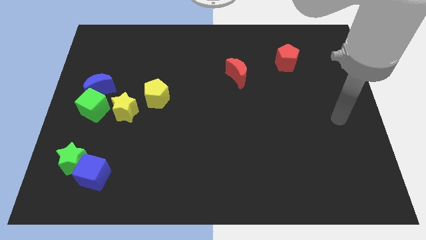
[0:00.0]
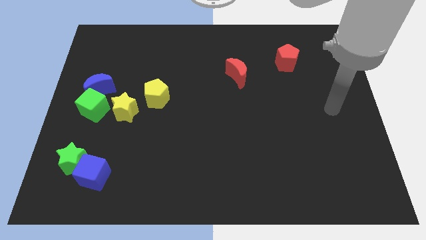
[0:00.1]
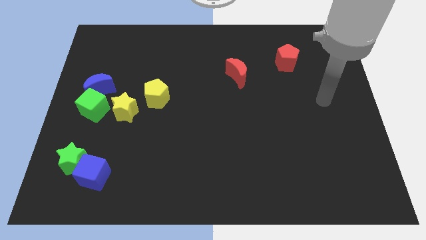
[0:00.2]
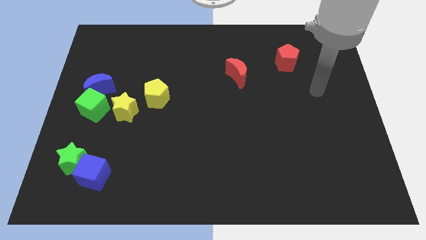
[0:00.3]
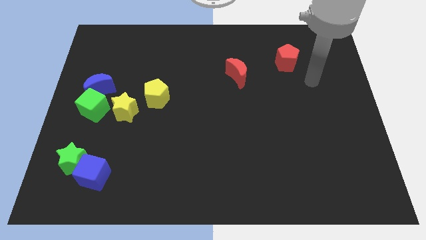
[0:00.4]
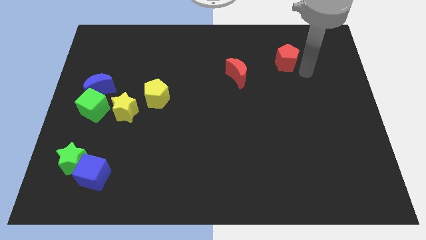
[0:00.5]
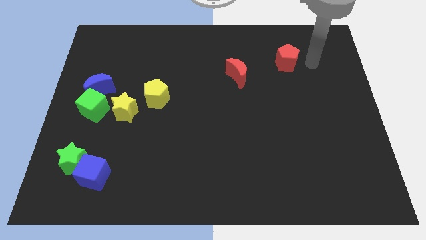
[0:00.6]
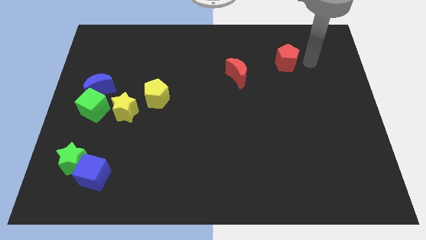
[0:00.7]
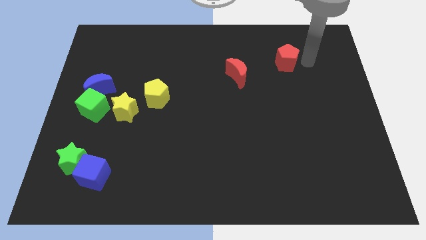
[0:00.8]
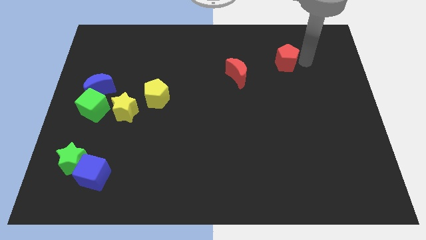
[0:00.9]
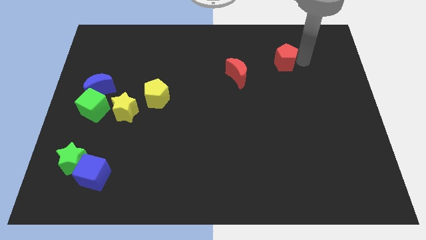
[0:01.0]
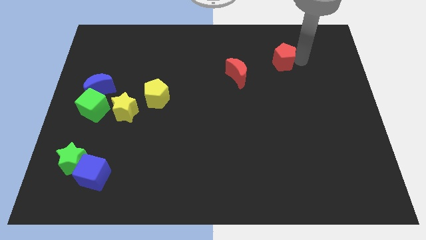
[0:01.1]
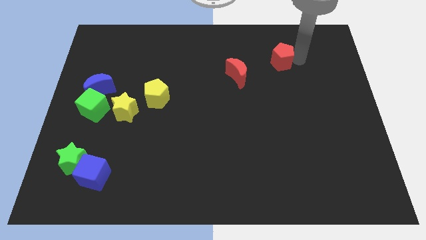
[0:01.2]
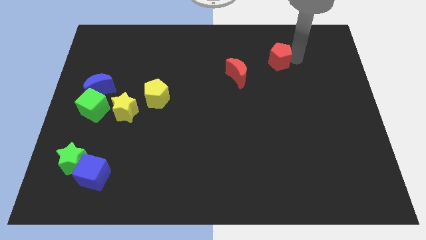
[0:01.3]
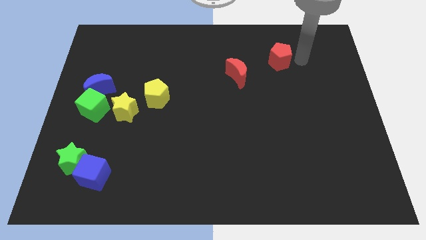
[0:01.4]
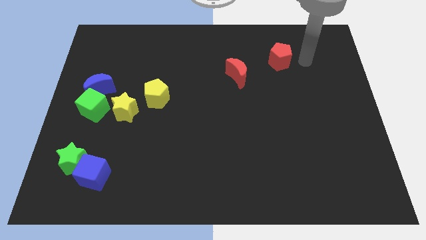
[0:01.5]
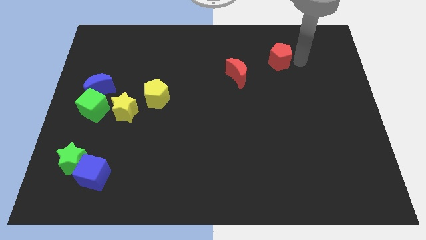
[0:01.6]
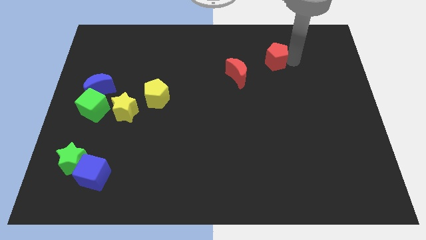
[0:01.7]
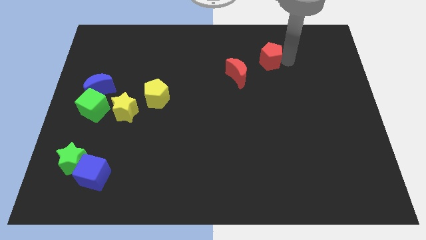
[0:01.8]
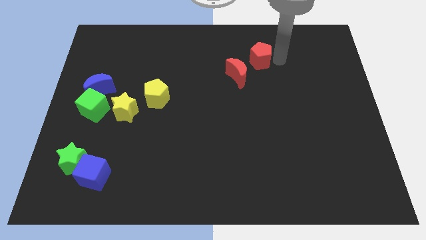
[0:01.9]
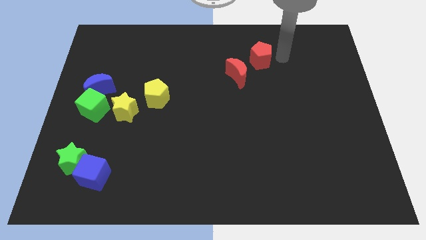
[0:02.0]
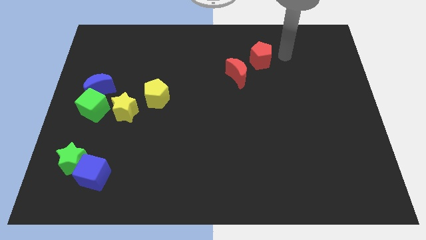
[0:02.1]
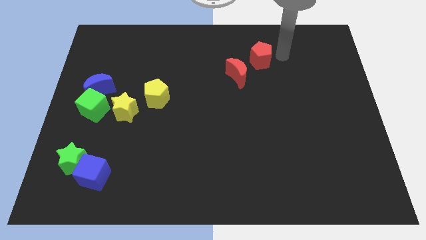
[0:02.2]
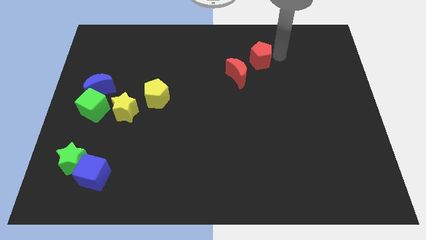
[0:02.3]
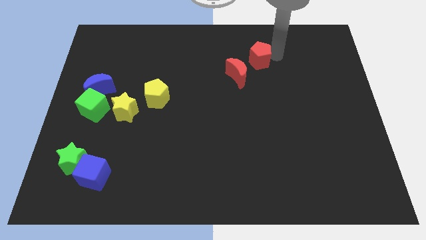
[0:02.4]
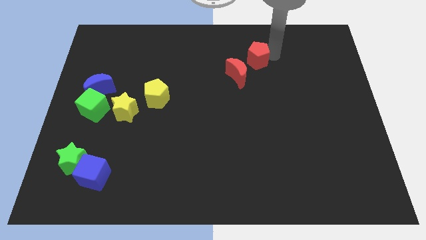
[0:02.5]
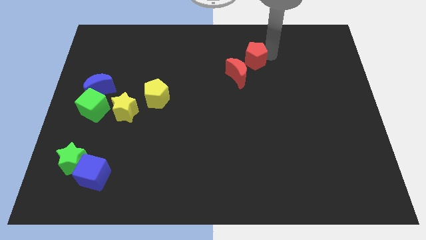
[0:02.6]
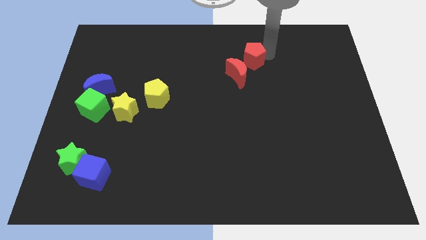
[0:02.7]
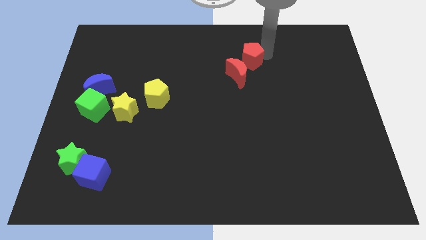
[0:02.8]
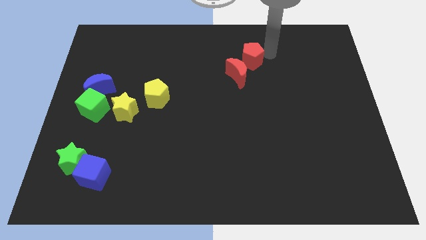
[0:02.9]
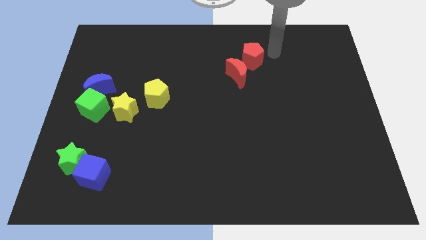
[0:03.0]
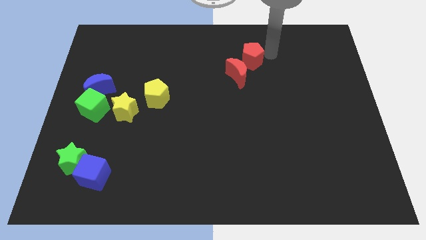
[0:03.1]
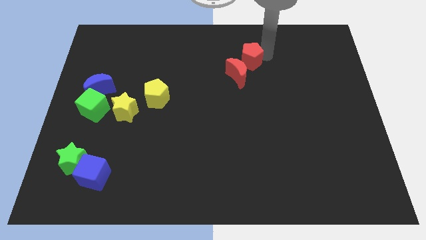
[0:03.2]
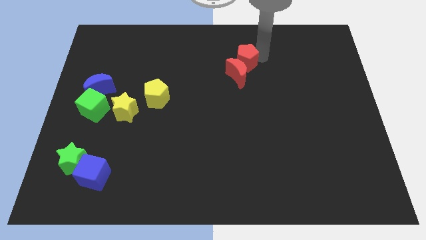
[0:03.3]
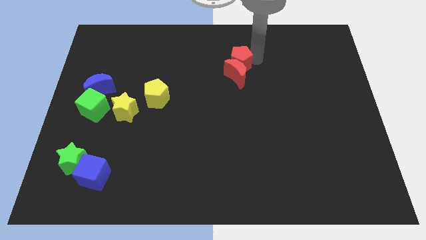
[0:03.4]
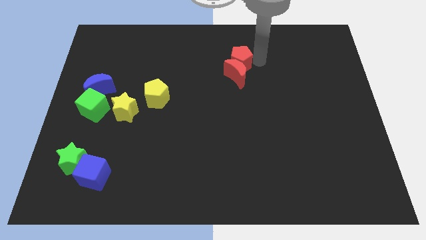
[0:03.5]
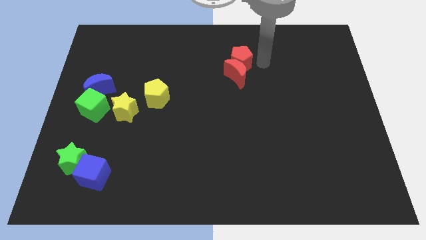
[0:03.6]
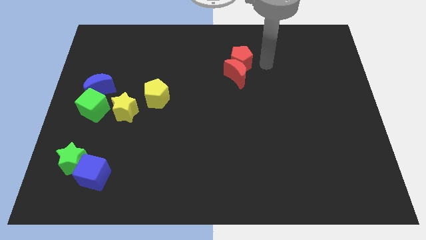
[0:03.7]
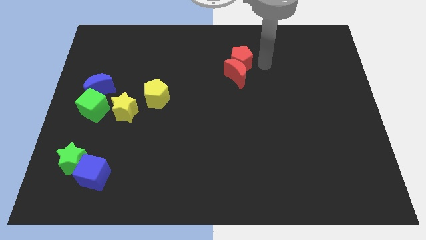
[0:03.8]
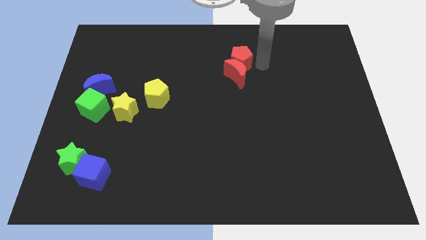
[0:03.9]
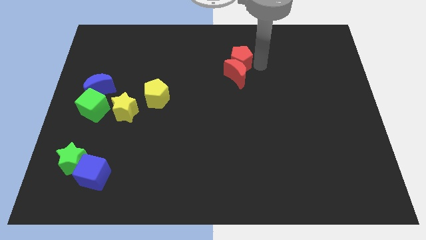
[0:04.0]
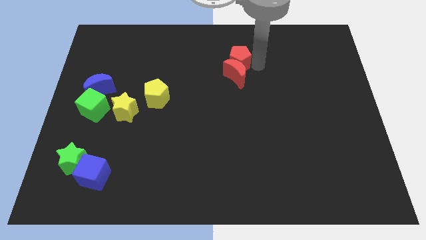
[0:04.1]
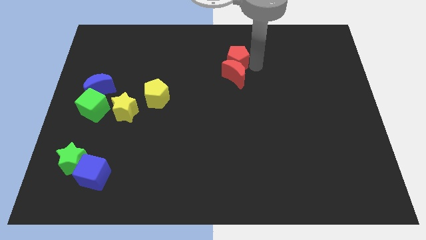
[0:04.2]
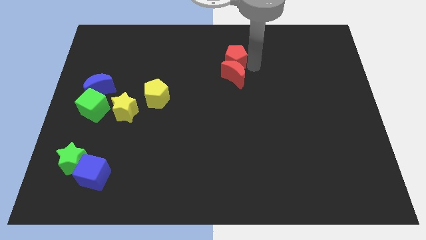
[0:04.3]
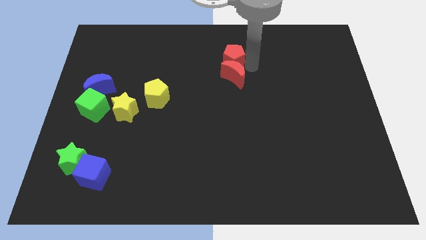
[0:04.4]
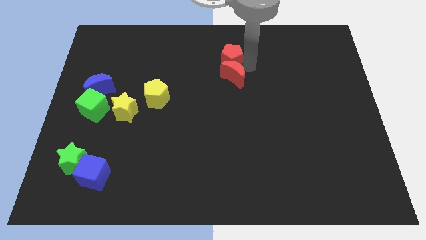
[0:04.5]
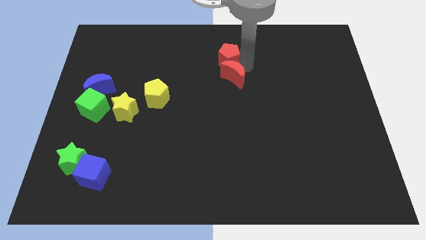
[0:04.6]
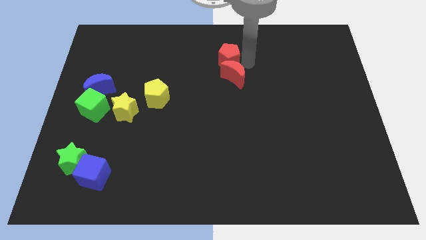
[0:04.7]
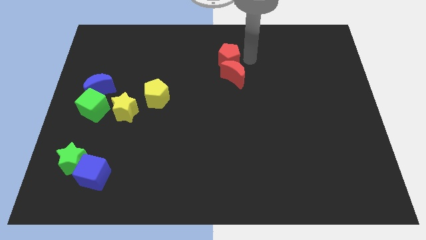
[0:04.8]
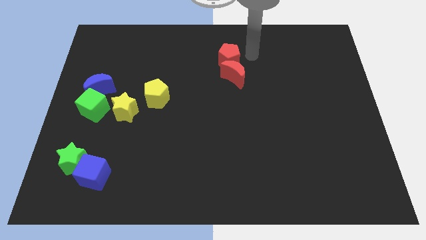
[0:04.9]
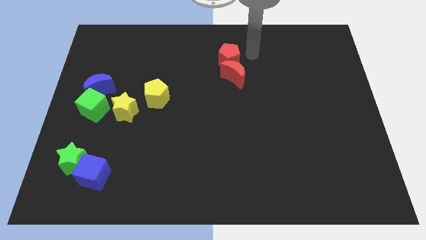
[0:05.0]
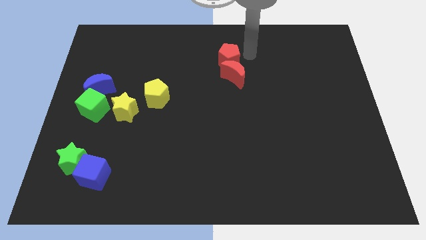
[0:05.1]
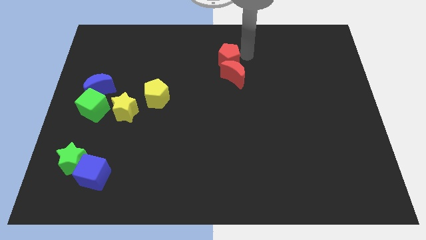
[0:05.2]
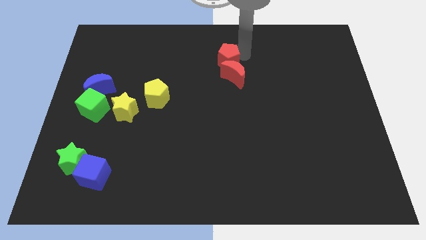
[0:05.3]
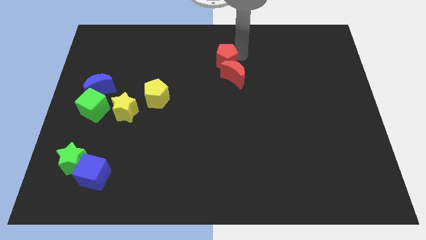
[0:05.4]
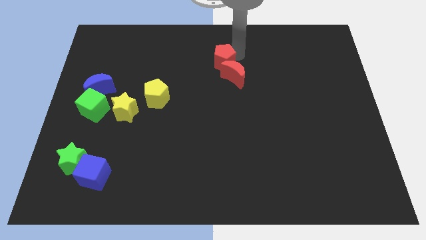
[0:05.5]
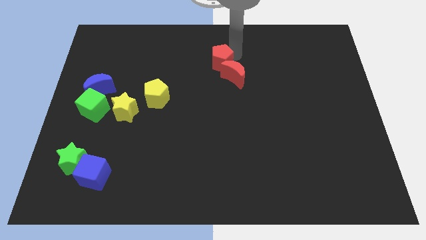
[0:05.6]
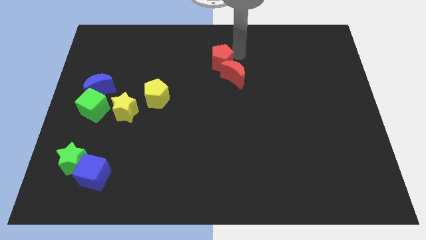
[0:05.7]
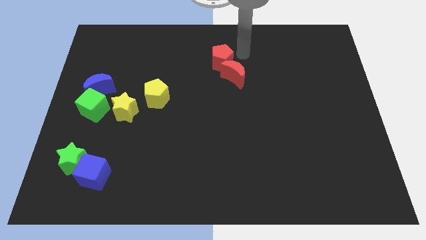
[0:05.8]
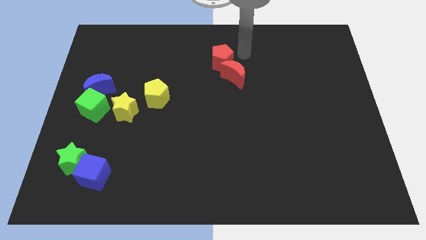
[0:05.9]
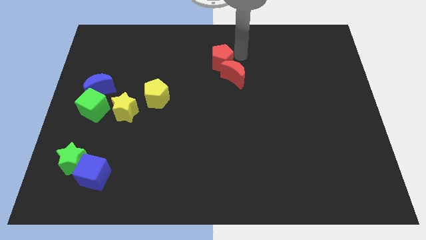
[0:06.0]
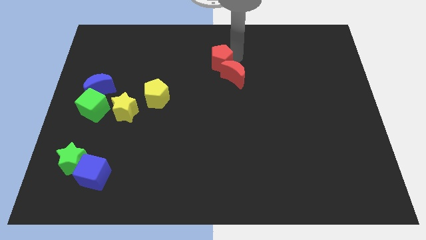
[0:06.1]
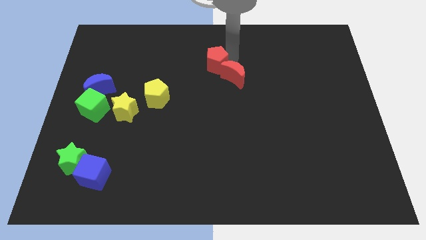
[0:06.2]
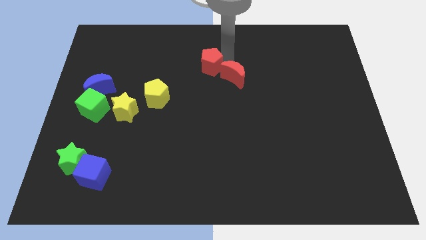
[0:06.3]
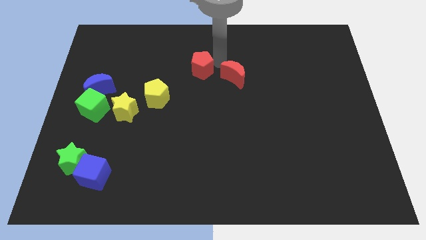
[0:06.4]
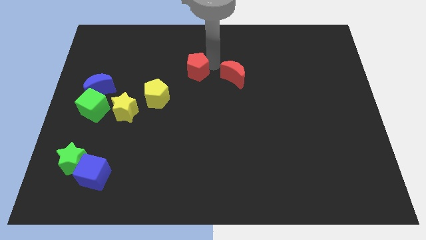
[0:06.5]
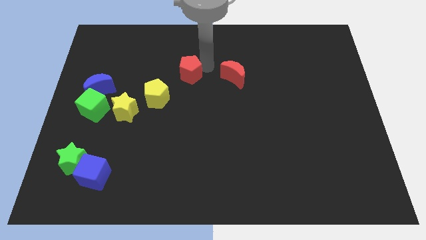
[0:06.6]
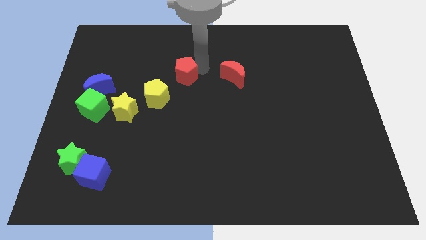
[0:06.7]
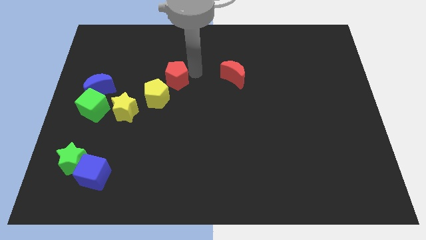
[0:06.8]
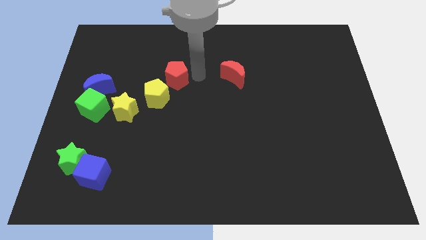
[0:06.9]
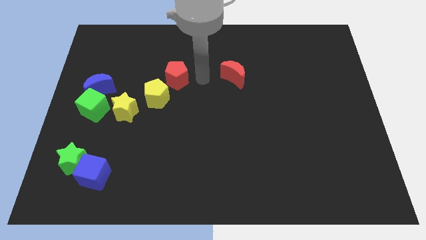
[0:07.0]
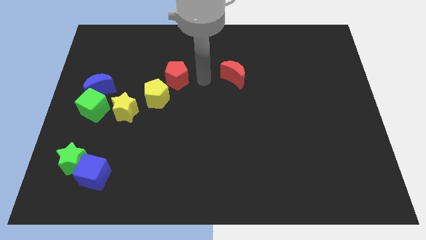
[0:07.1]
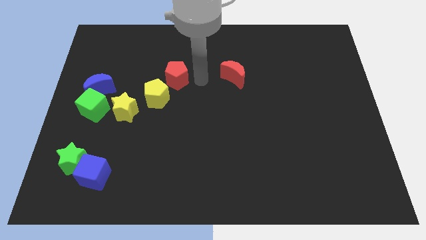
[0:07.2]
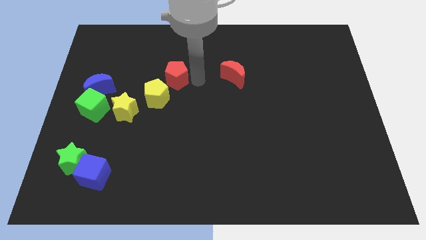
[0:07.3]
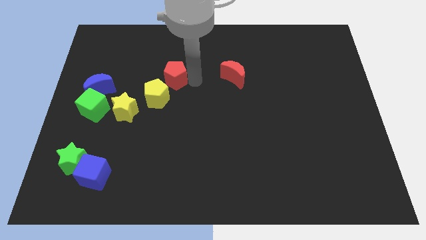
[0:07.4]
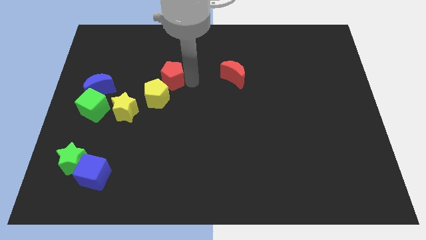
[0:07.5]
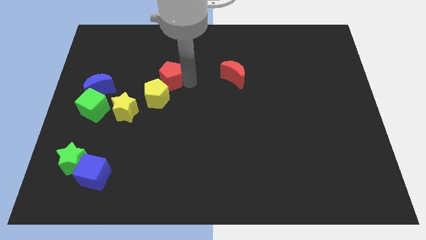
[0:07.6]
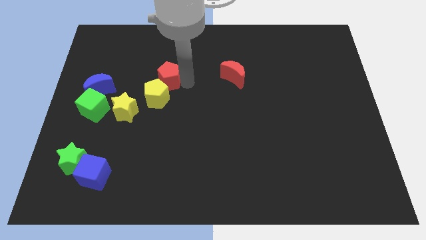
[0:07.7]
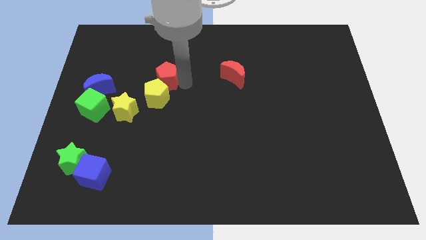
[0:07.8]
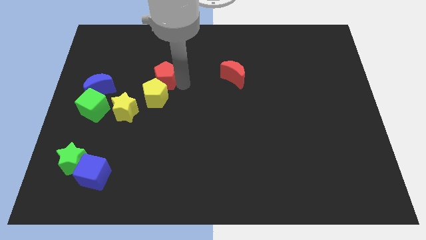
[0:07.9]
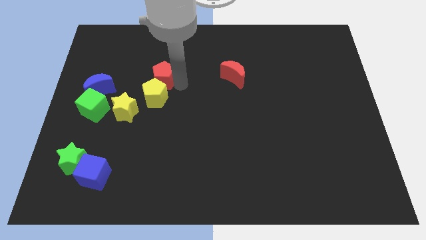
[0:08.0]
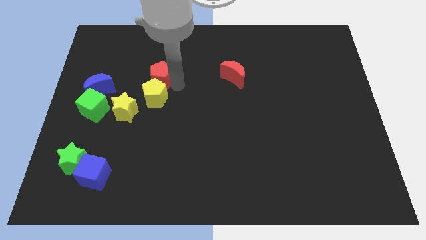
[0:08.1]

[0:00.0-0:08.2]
move the red pentagon to the top left of the yellow pentagon
